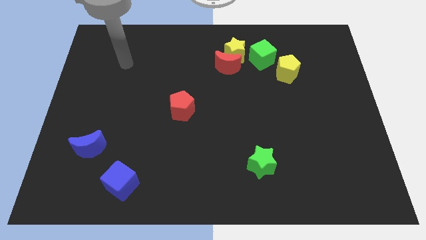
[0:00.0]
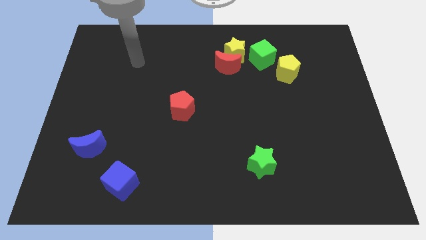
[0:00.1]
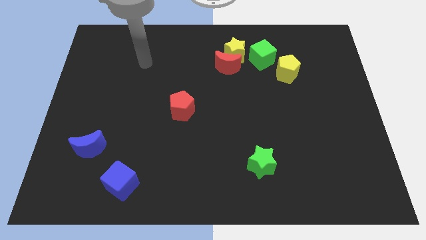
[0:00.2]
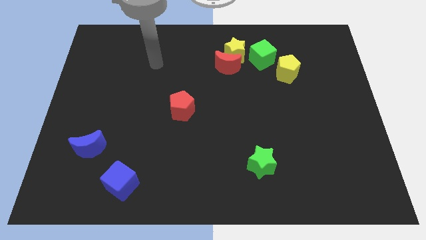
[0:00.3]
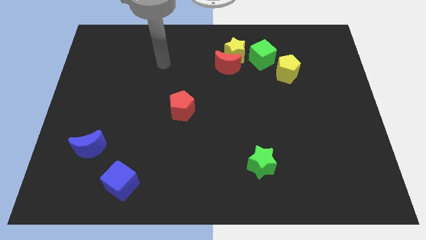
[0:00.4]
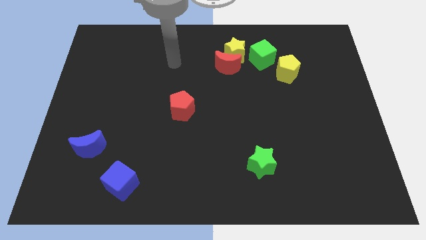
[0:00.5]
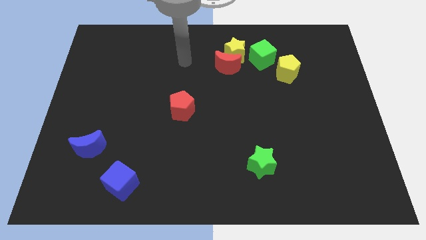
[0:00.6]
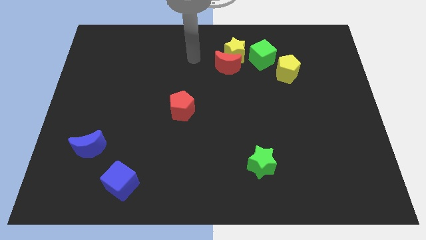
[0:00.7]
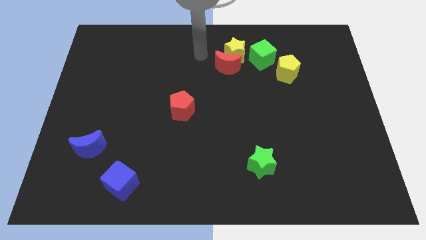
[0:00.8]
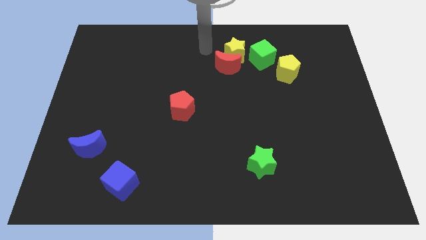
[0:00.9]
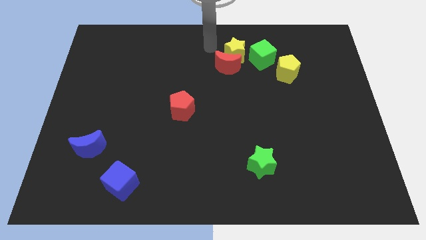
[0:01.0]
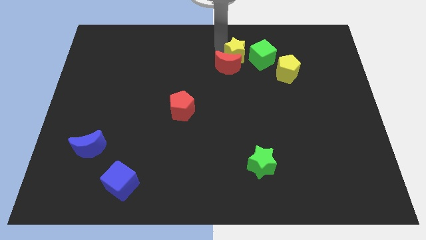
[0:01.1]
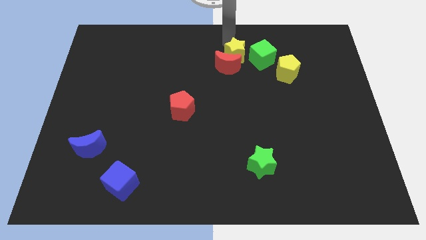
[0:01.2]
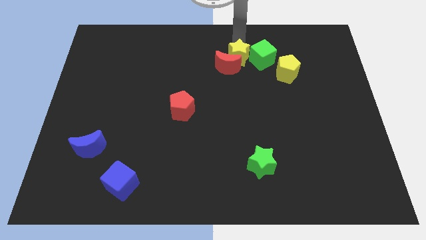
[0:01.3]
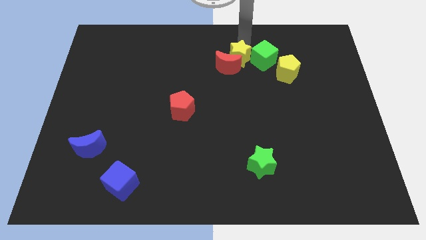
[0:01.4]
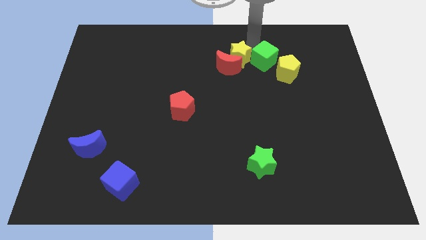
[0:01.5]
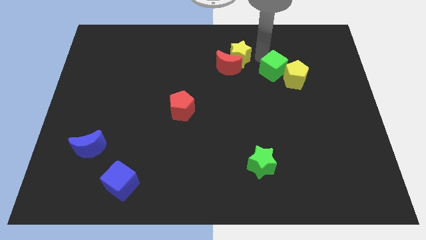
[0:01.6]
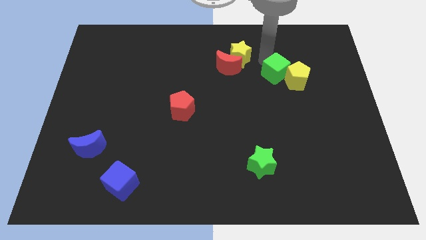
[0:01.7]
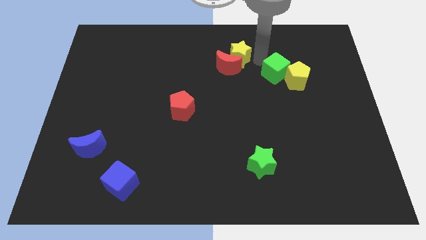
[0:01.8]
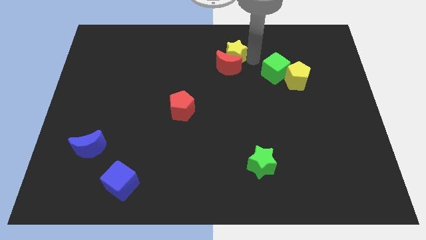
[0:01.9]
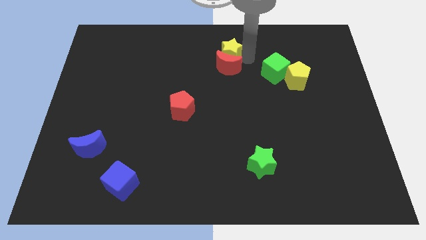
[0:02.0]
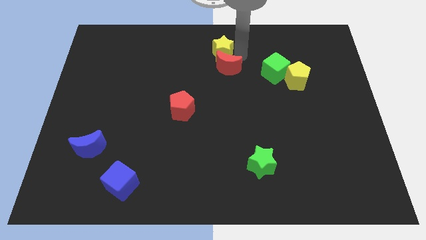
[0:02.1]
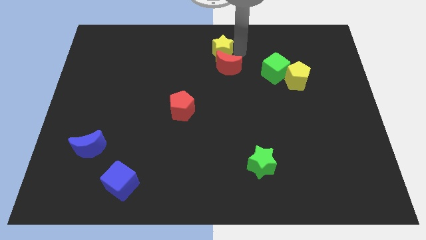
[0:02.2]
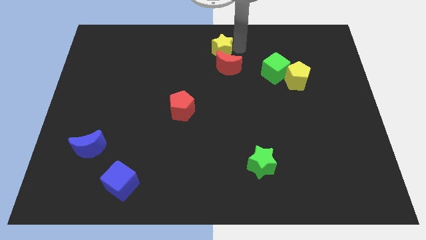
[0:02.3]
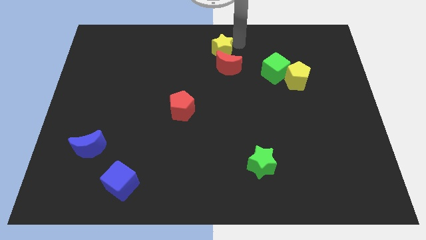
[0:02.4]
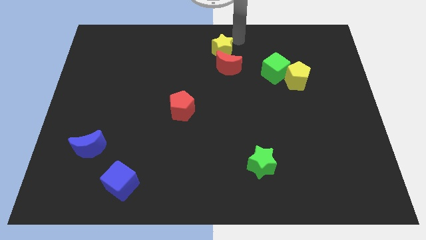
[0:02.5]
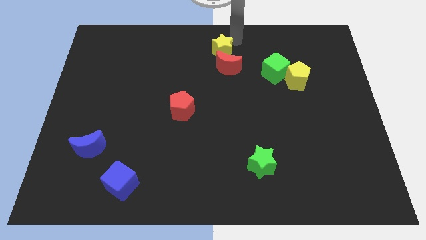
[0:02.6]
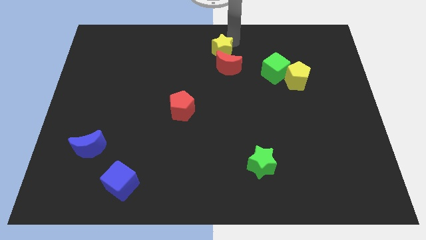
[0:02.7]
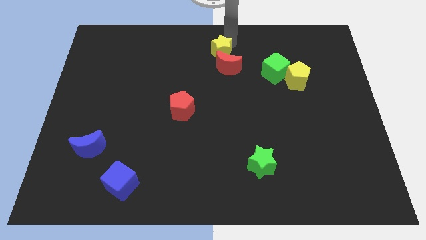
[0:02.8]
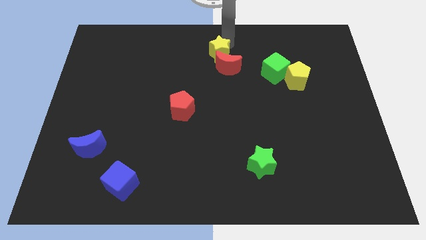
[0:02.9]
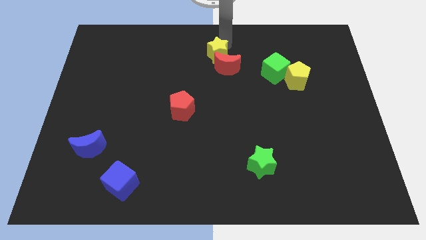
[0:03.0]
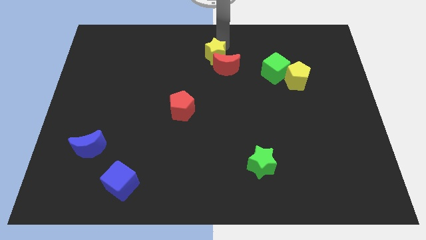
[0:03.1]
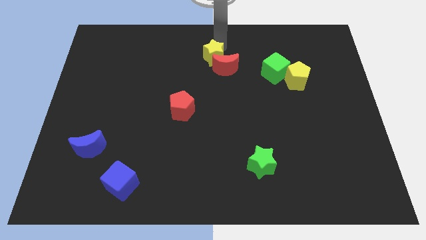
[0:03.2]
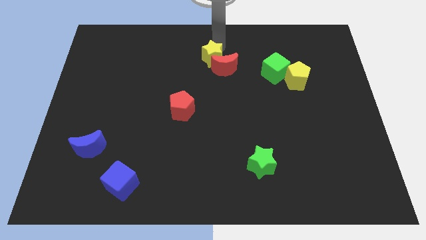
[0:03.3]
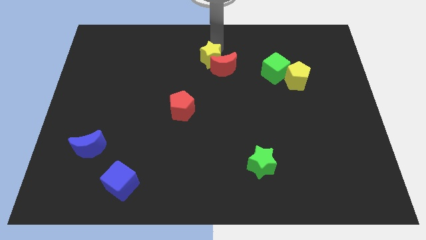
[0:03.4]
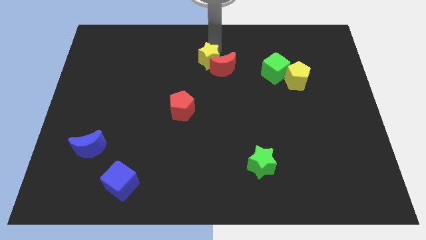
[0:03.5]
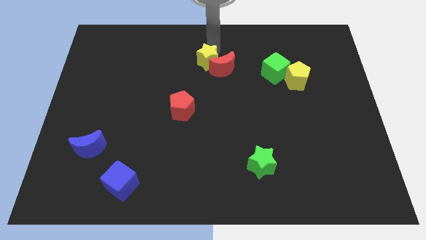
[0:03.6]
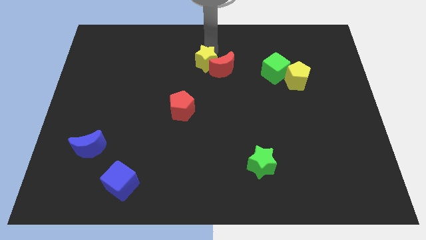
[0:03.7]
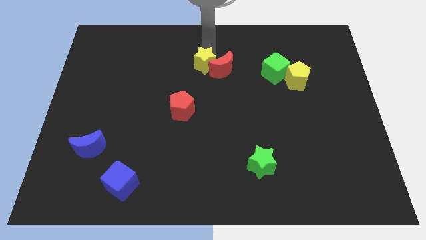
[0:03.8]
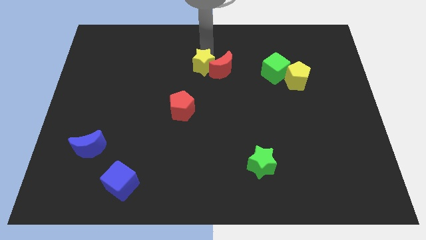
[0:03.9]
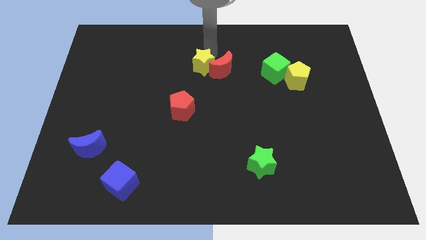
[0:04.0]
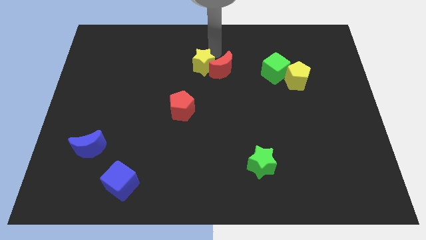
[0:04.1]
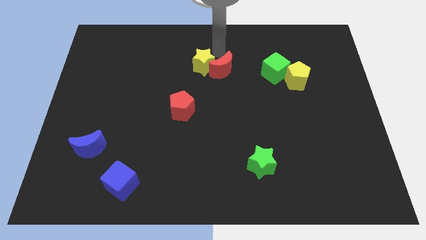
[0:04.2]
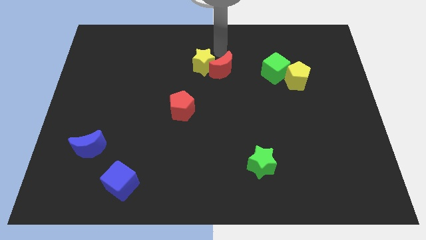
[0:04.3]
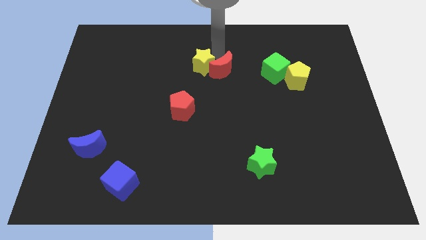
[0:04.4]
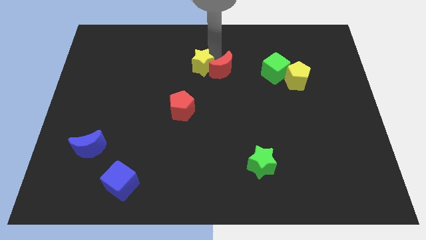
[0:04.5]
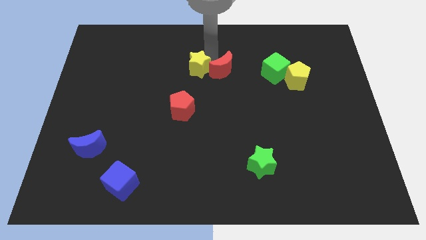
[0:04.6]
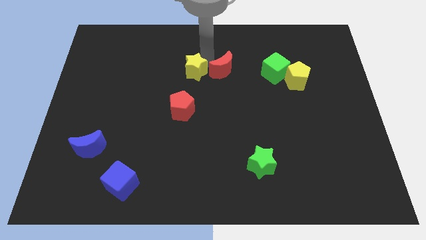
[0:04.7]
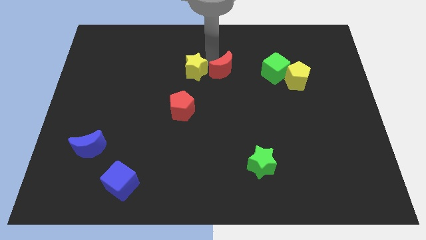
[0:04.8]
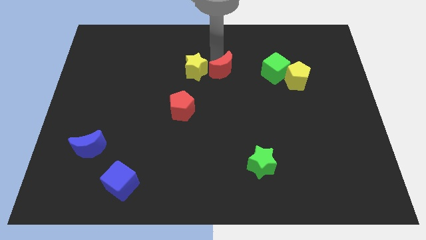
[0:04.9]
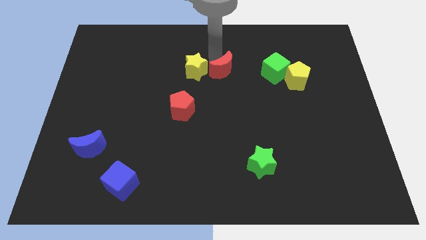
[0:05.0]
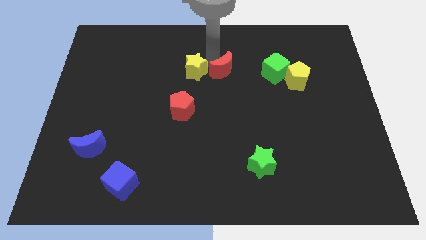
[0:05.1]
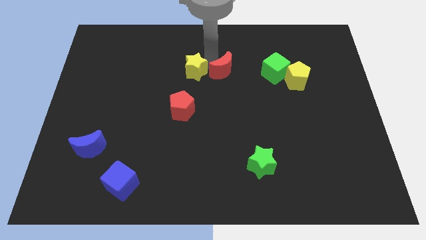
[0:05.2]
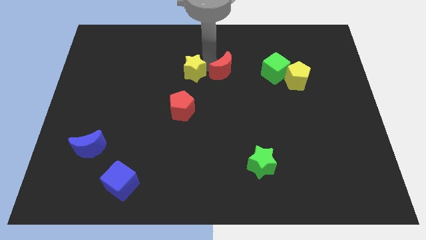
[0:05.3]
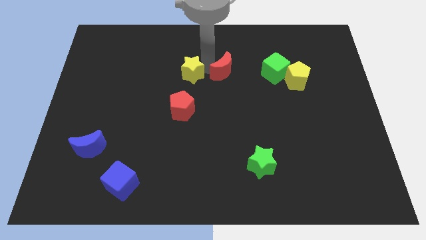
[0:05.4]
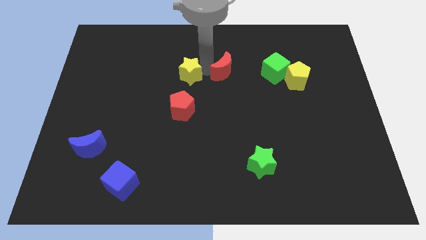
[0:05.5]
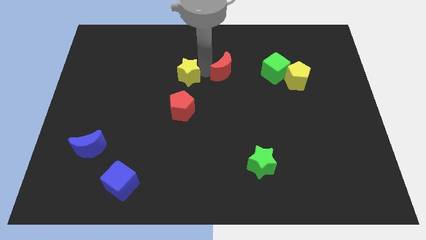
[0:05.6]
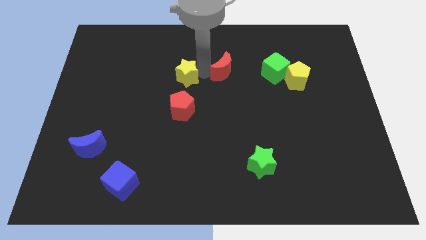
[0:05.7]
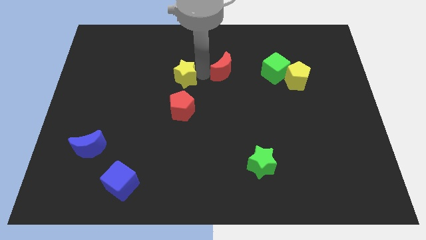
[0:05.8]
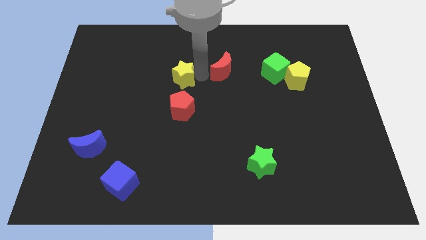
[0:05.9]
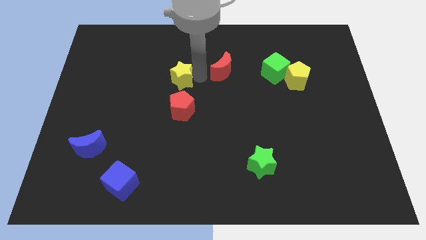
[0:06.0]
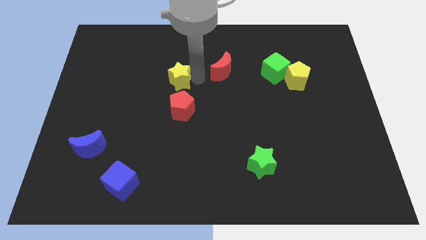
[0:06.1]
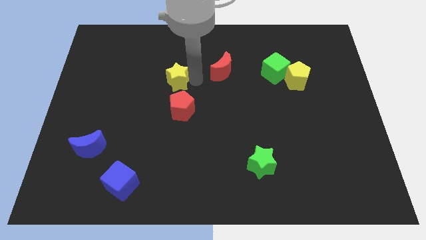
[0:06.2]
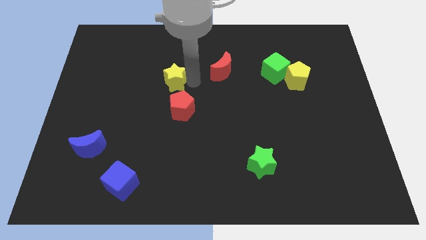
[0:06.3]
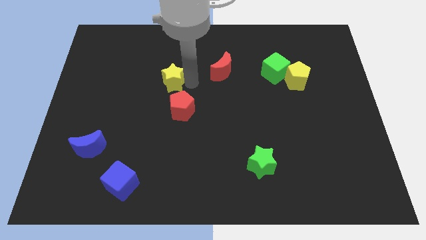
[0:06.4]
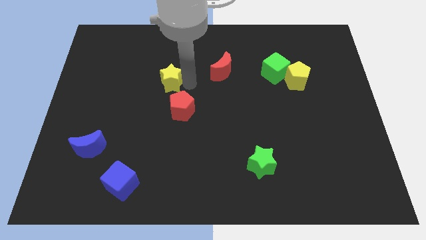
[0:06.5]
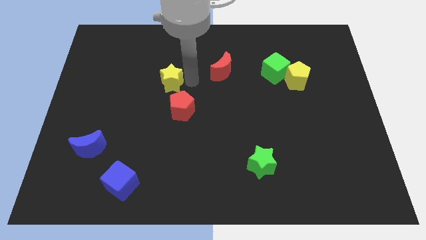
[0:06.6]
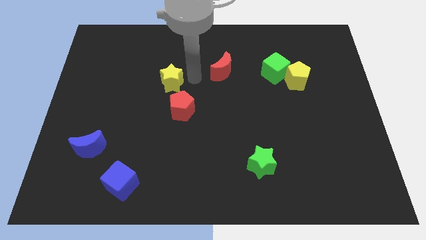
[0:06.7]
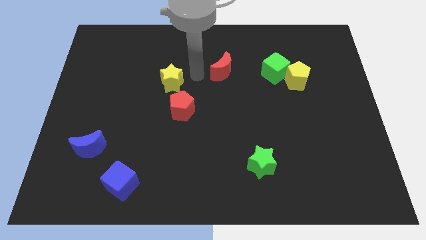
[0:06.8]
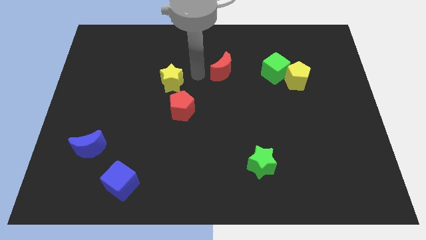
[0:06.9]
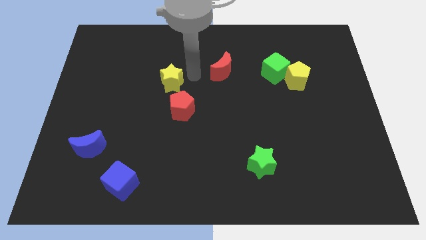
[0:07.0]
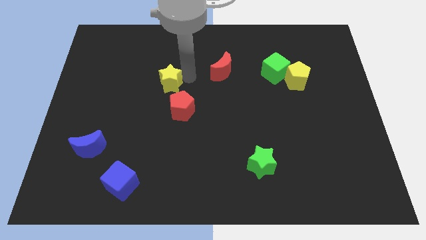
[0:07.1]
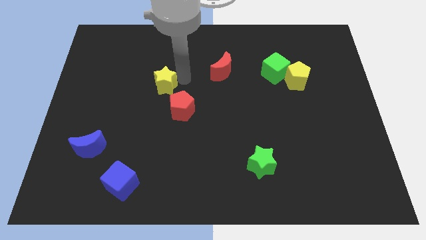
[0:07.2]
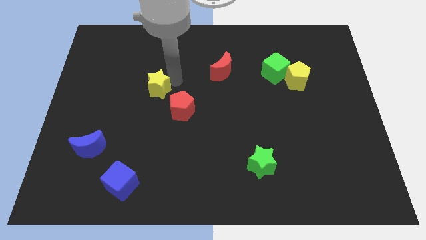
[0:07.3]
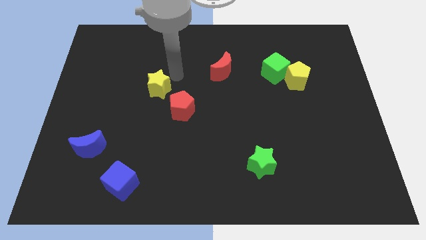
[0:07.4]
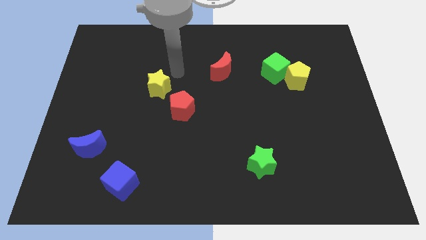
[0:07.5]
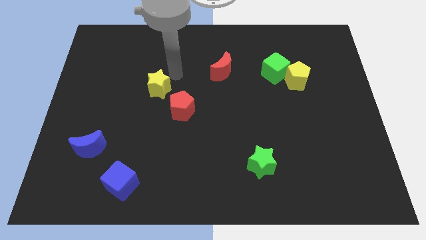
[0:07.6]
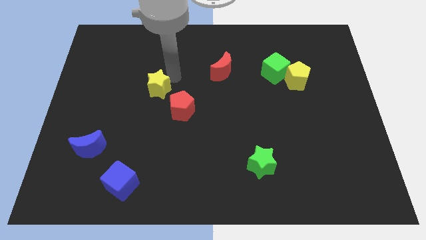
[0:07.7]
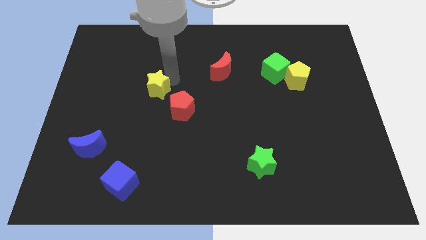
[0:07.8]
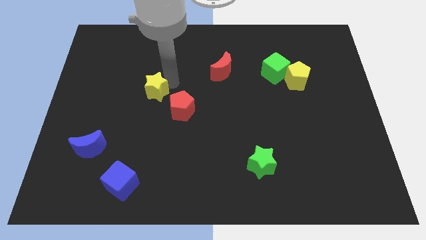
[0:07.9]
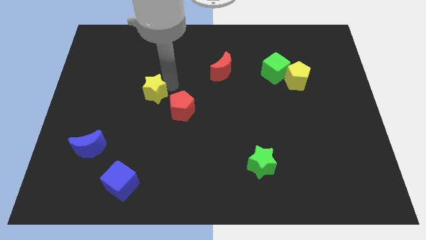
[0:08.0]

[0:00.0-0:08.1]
slide the yellow star left of the red pentagon

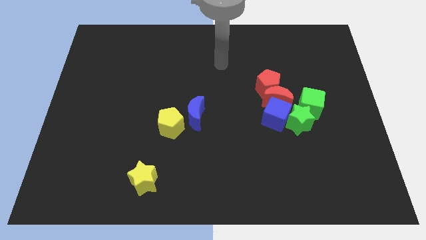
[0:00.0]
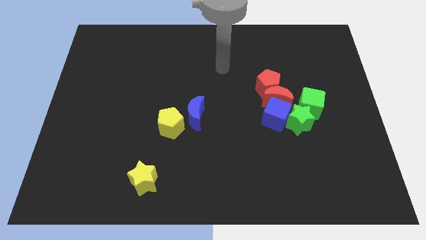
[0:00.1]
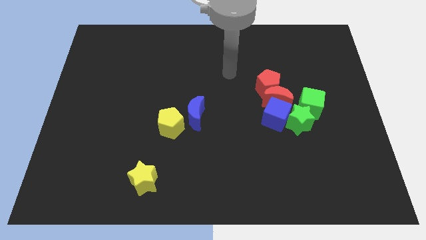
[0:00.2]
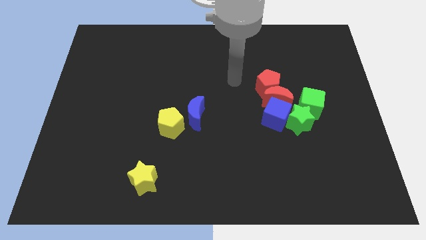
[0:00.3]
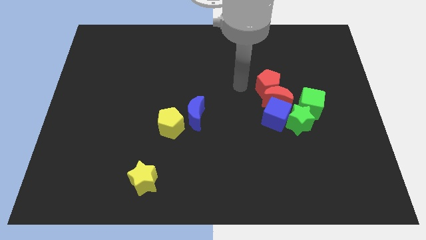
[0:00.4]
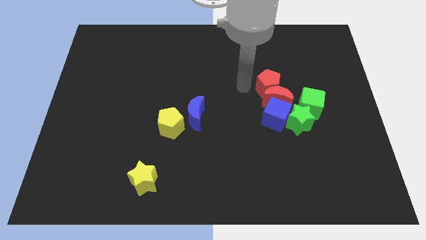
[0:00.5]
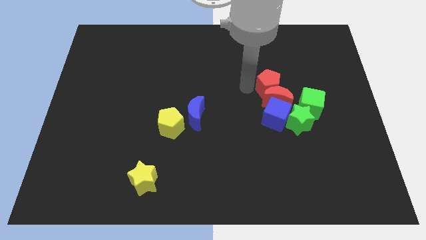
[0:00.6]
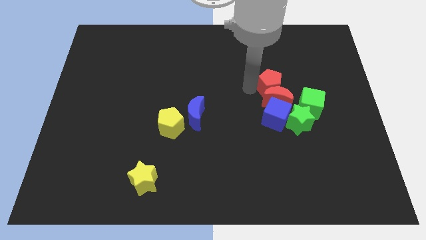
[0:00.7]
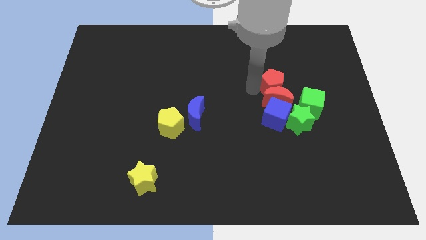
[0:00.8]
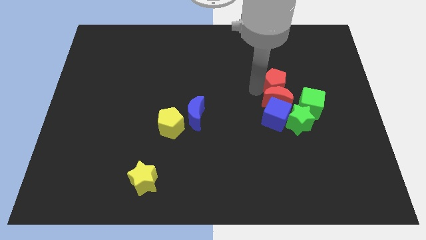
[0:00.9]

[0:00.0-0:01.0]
push the red pentagon to the top side of the green star
